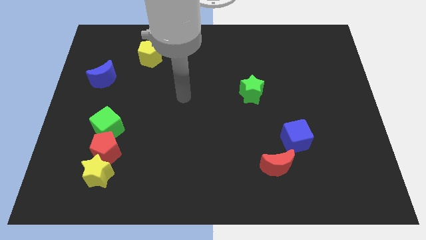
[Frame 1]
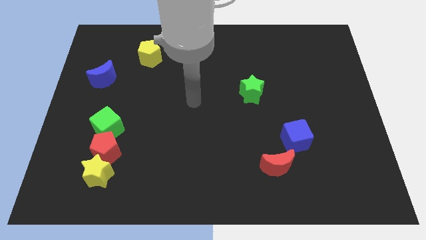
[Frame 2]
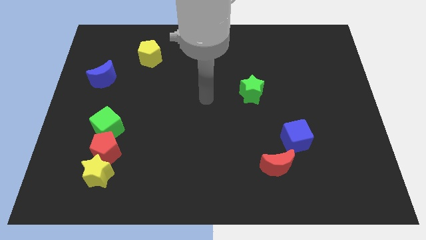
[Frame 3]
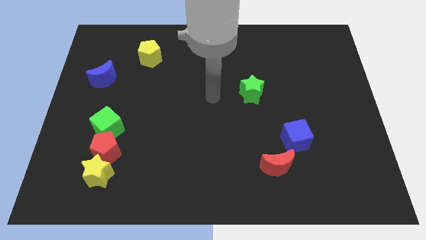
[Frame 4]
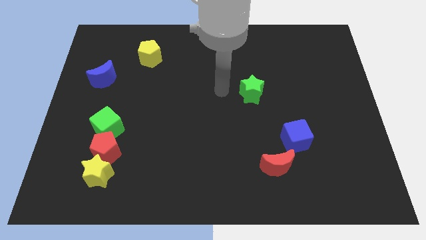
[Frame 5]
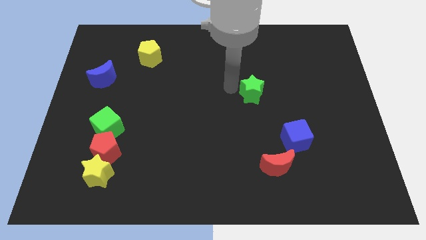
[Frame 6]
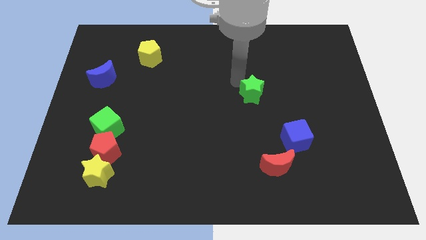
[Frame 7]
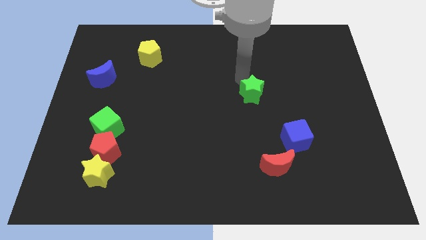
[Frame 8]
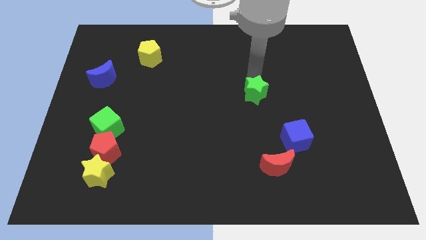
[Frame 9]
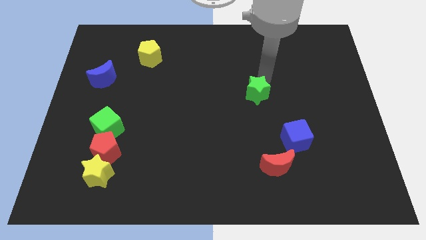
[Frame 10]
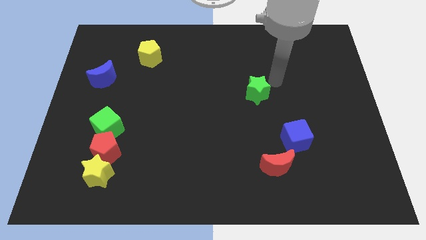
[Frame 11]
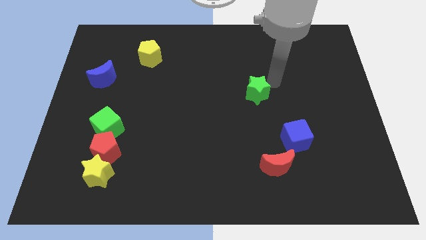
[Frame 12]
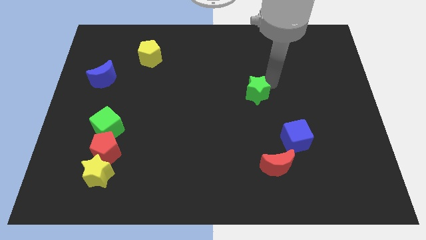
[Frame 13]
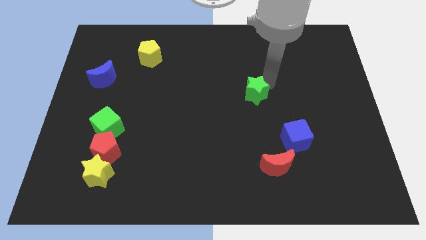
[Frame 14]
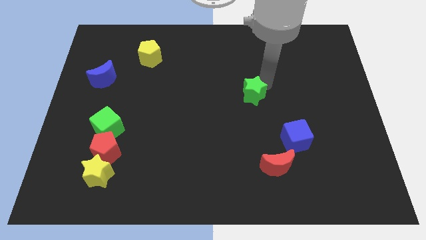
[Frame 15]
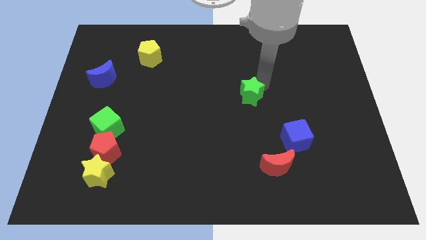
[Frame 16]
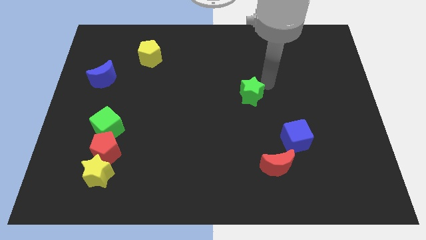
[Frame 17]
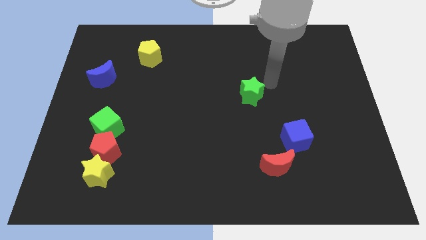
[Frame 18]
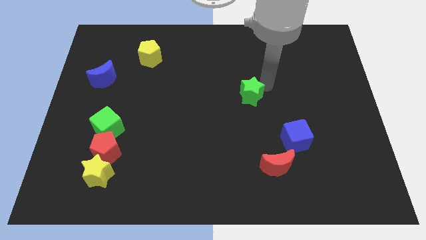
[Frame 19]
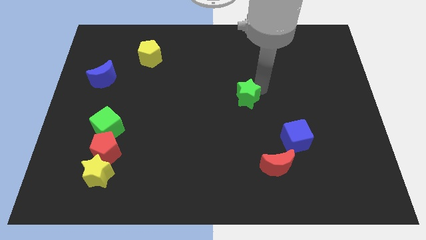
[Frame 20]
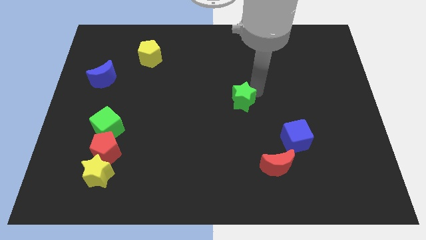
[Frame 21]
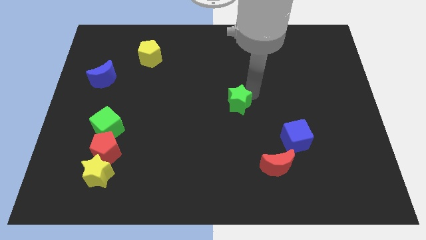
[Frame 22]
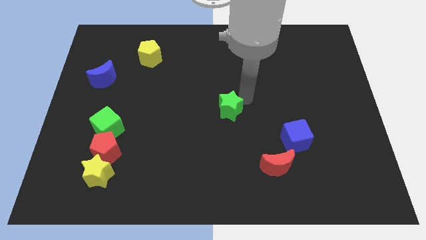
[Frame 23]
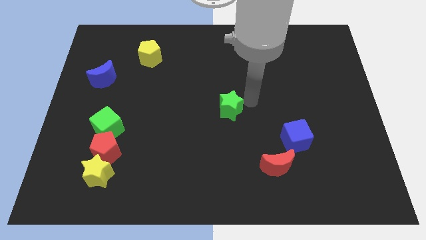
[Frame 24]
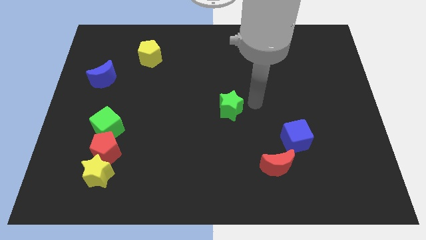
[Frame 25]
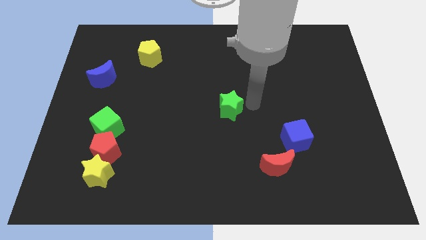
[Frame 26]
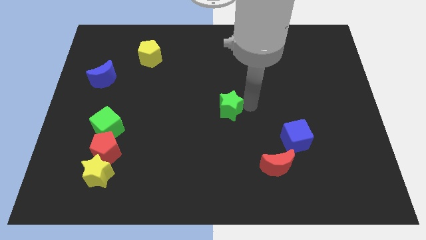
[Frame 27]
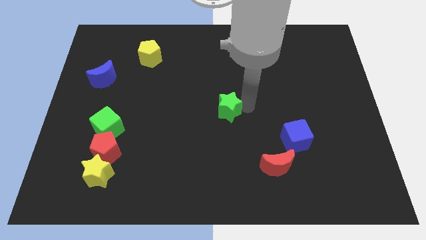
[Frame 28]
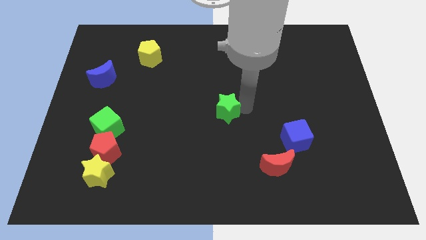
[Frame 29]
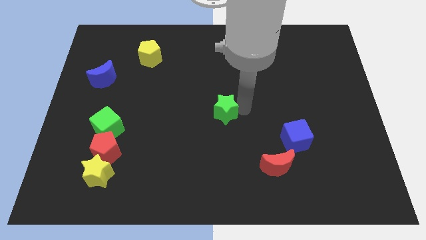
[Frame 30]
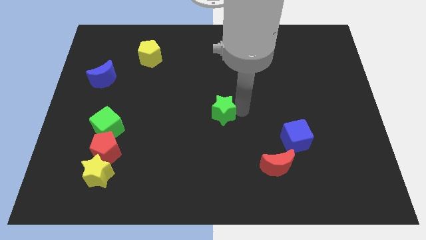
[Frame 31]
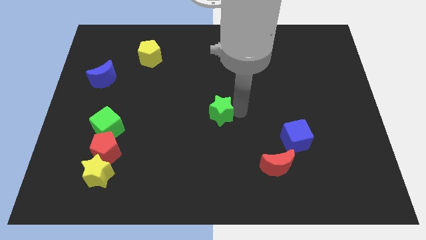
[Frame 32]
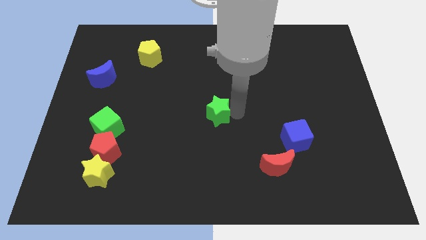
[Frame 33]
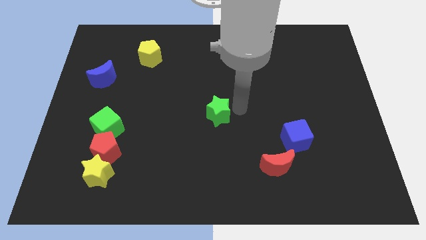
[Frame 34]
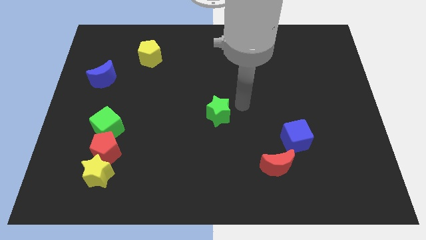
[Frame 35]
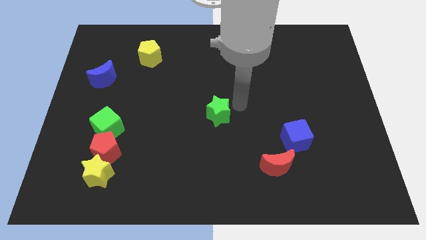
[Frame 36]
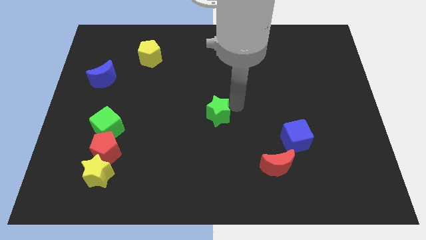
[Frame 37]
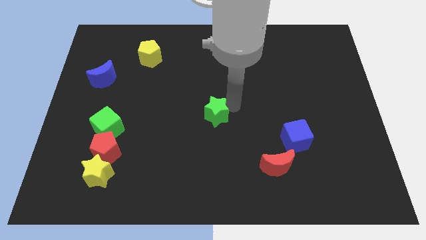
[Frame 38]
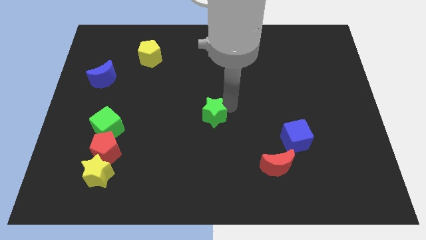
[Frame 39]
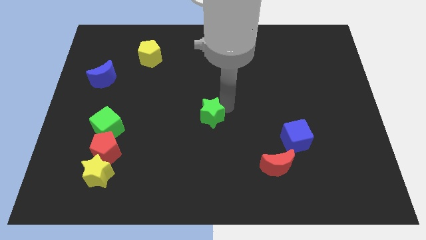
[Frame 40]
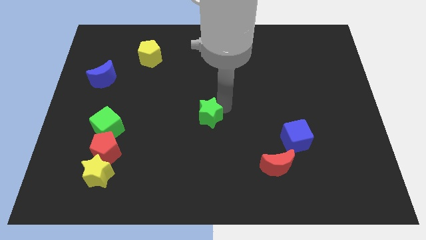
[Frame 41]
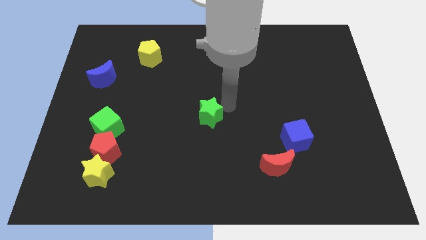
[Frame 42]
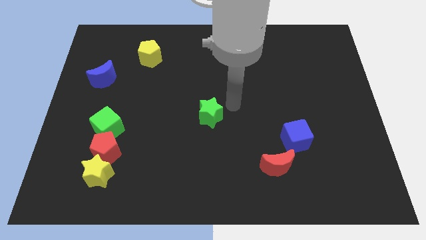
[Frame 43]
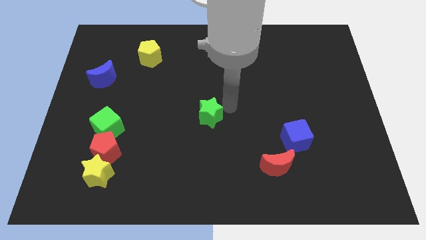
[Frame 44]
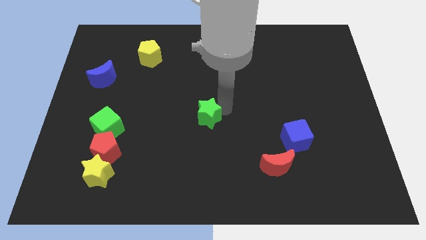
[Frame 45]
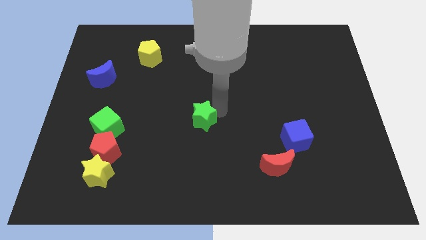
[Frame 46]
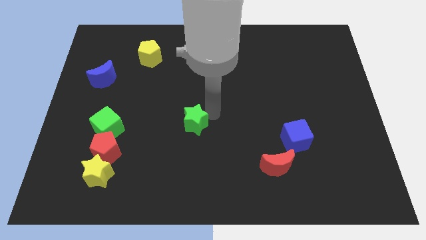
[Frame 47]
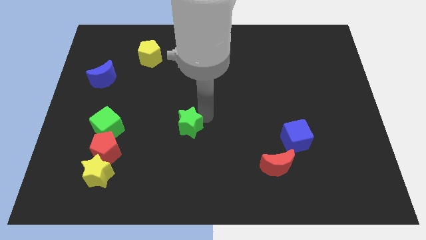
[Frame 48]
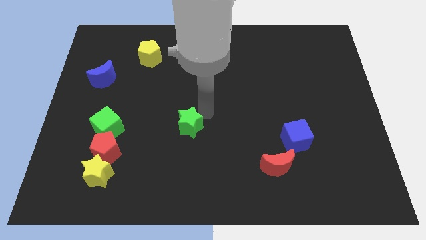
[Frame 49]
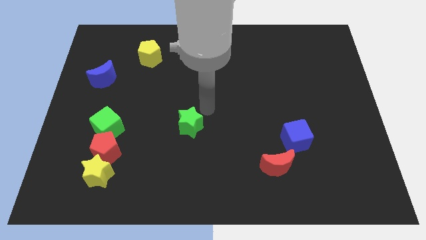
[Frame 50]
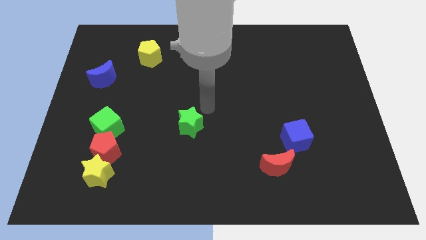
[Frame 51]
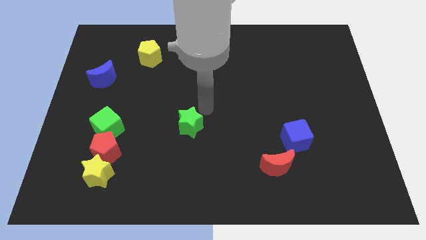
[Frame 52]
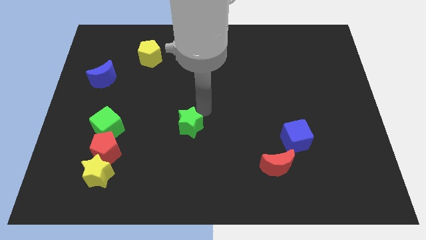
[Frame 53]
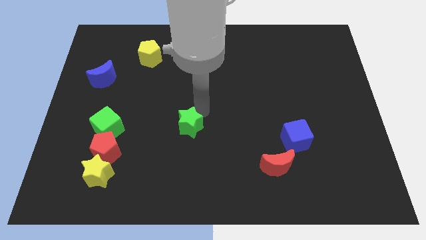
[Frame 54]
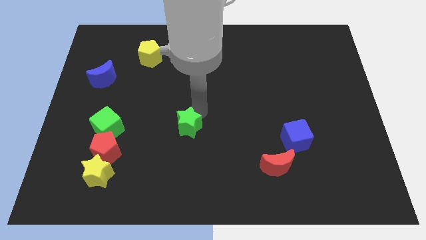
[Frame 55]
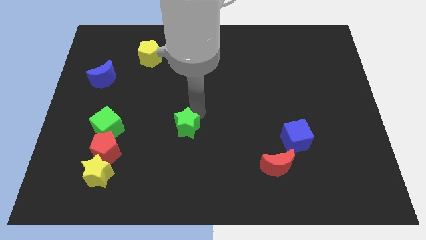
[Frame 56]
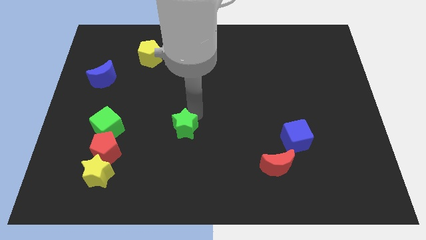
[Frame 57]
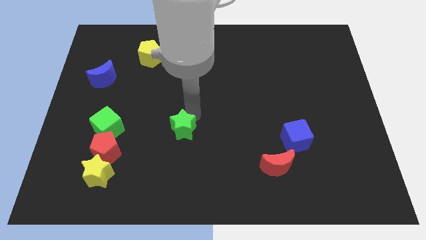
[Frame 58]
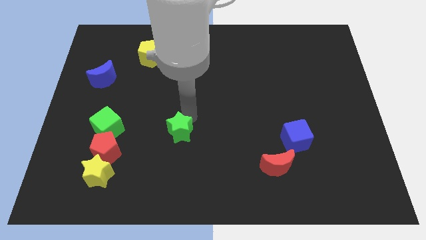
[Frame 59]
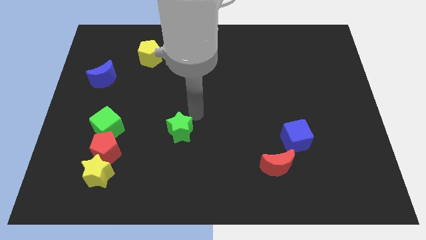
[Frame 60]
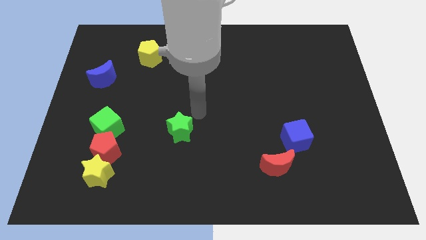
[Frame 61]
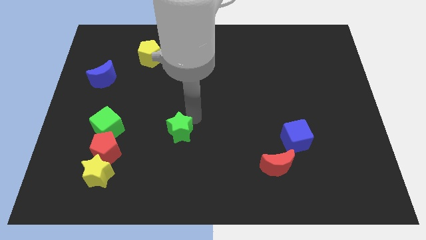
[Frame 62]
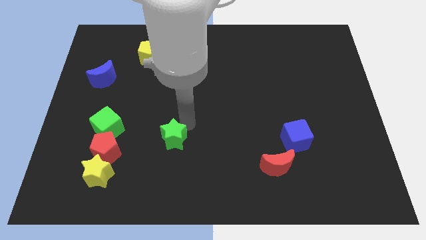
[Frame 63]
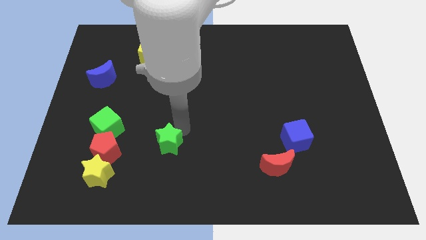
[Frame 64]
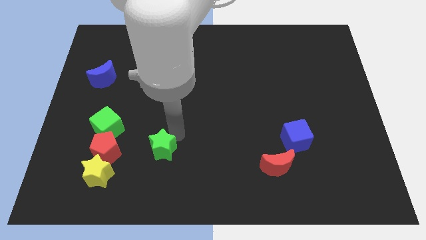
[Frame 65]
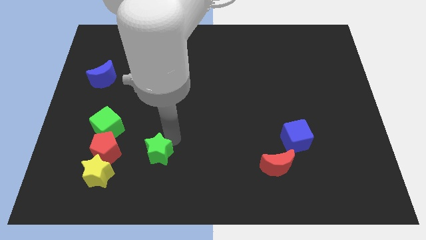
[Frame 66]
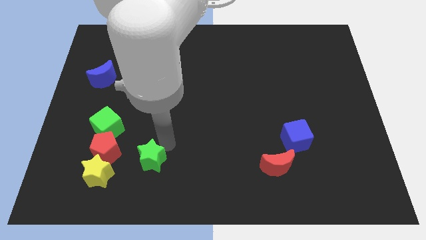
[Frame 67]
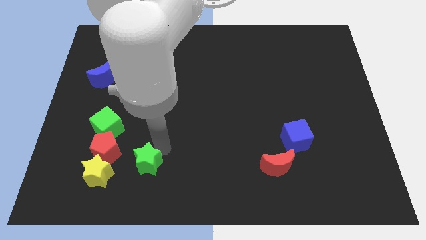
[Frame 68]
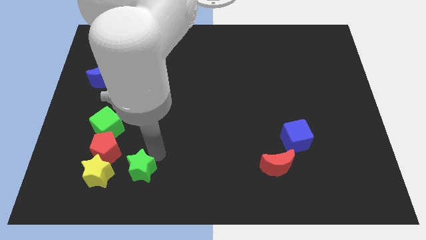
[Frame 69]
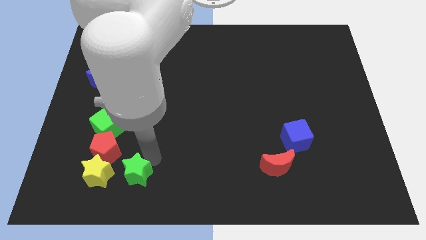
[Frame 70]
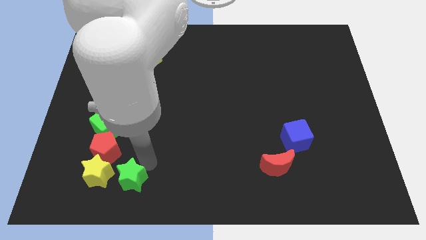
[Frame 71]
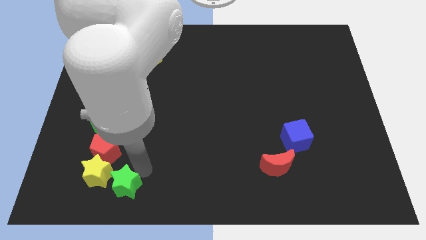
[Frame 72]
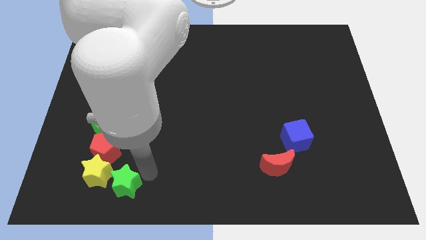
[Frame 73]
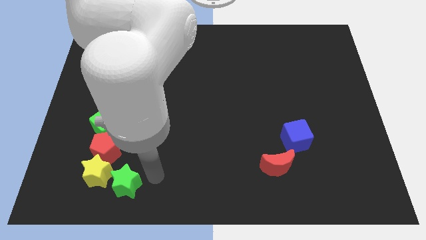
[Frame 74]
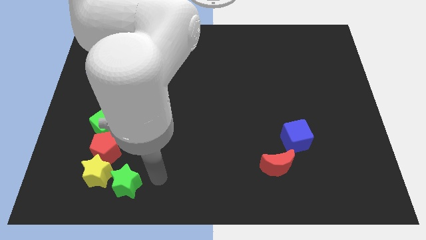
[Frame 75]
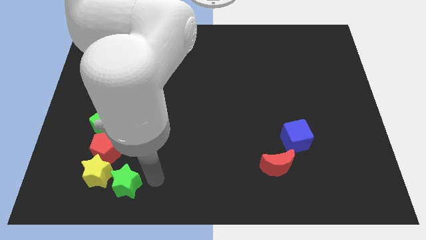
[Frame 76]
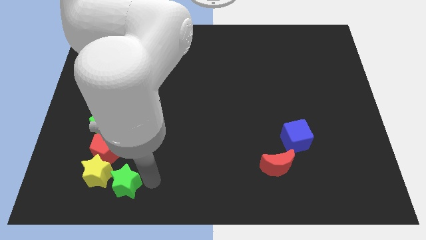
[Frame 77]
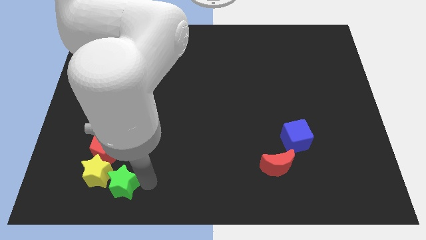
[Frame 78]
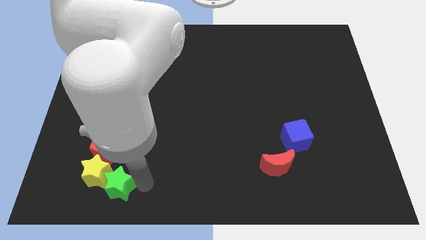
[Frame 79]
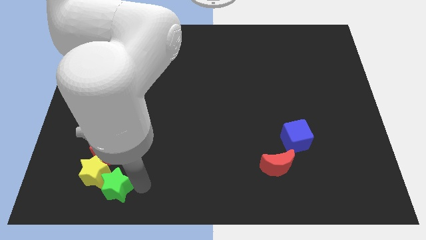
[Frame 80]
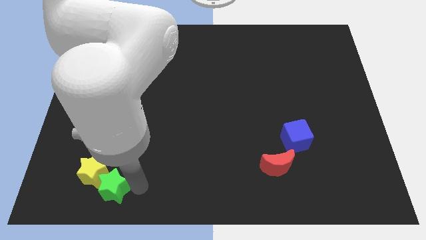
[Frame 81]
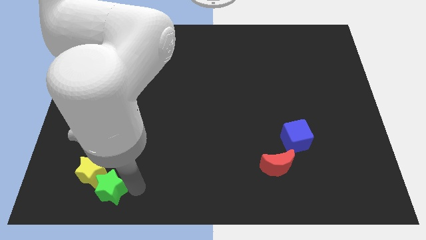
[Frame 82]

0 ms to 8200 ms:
move the green star to the bottom of the green cube
